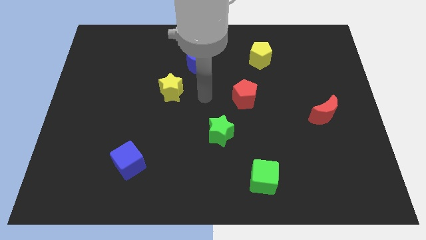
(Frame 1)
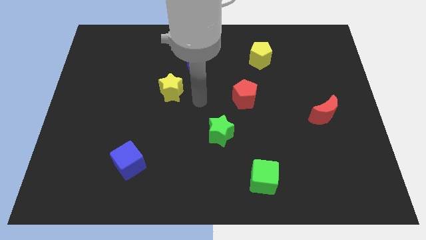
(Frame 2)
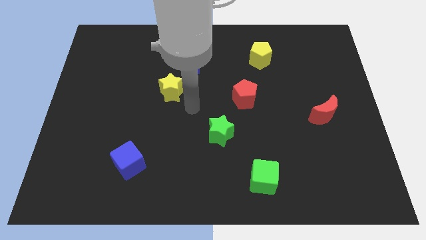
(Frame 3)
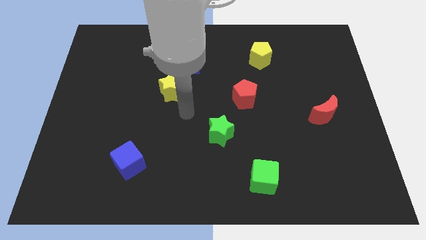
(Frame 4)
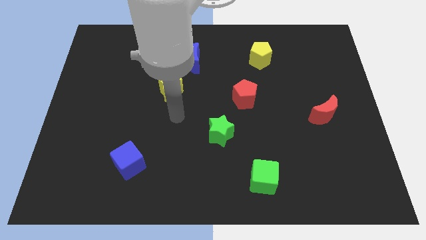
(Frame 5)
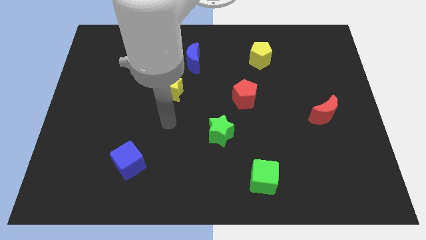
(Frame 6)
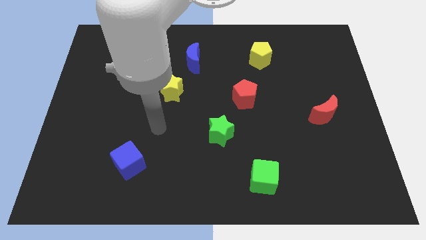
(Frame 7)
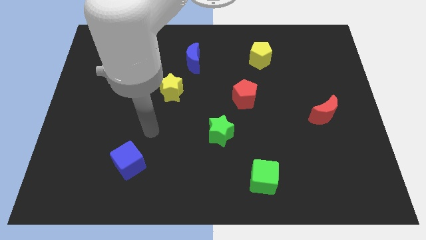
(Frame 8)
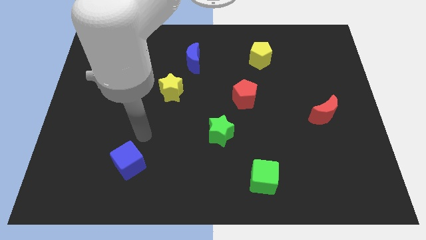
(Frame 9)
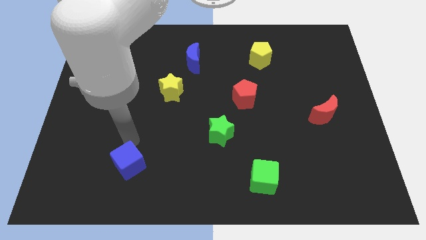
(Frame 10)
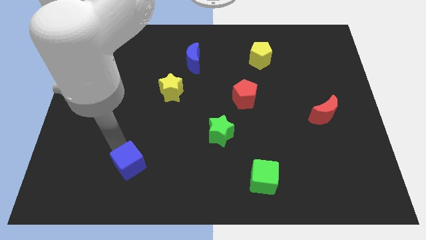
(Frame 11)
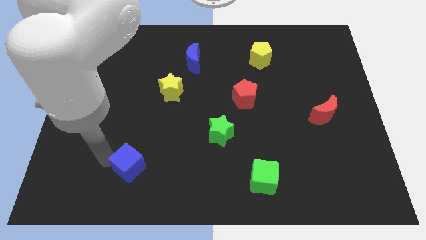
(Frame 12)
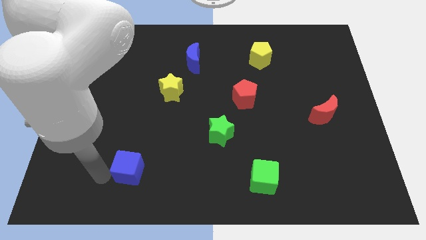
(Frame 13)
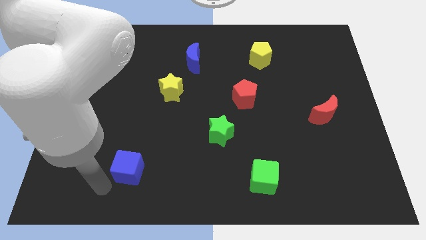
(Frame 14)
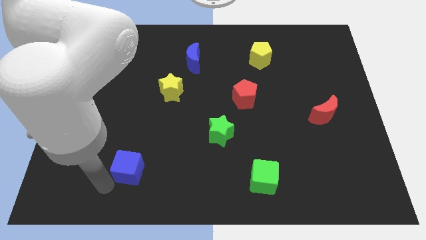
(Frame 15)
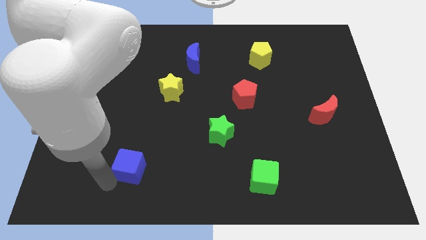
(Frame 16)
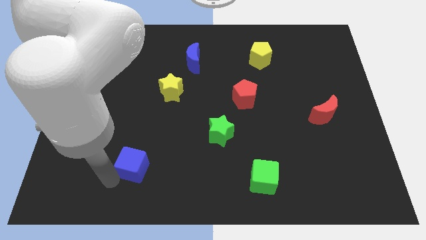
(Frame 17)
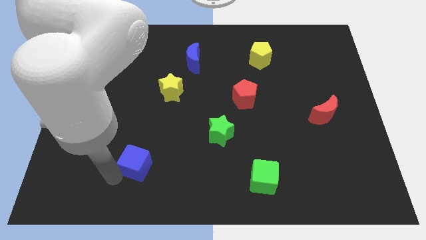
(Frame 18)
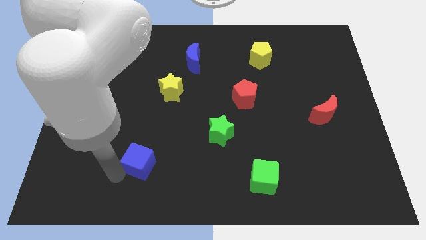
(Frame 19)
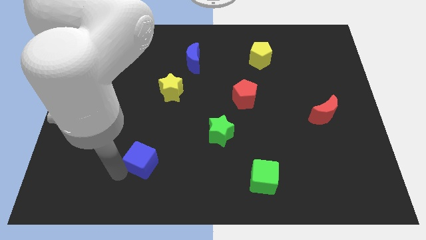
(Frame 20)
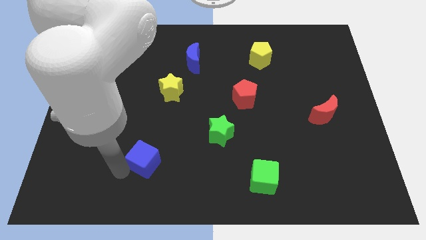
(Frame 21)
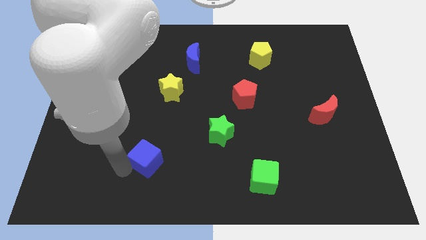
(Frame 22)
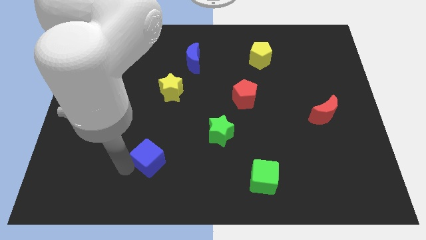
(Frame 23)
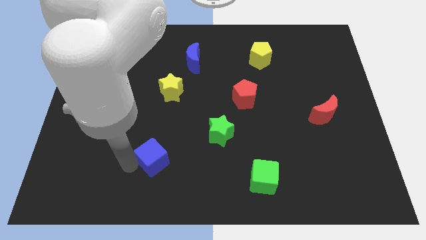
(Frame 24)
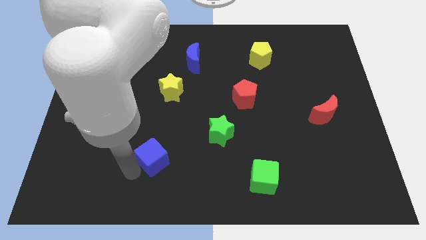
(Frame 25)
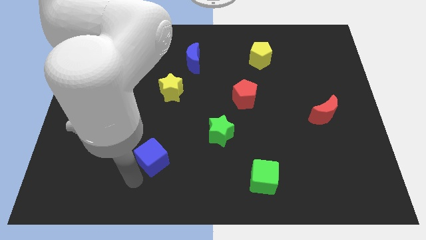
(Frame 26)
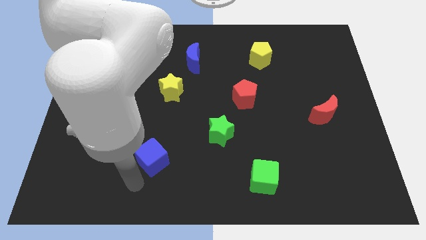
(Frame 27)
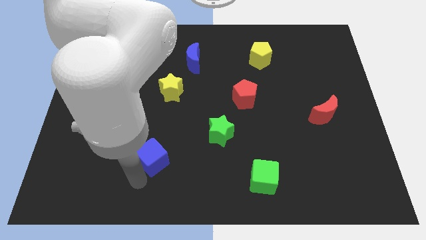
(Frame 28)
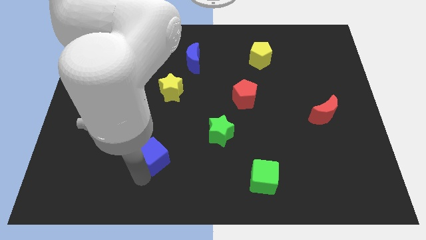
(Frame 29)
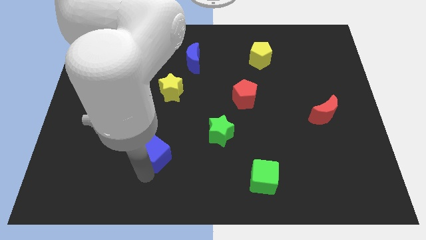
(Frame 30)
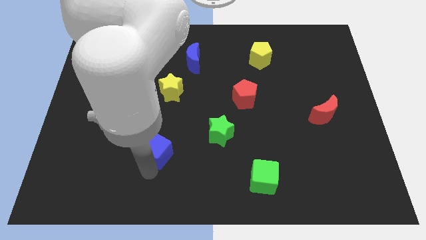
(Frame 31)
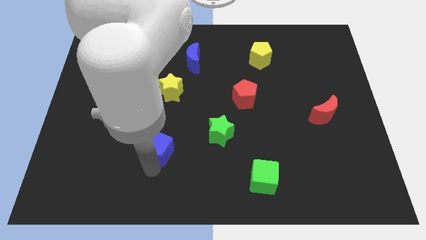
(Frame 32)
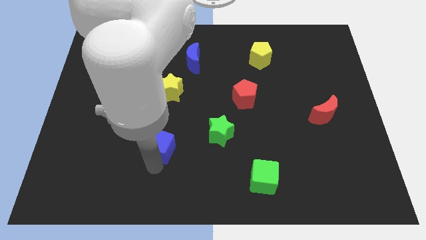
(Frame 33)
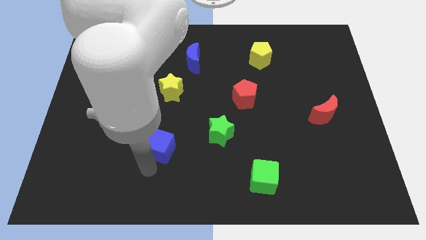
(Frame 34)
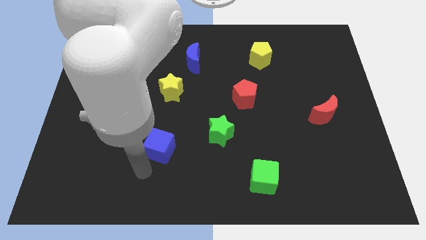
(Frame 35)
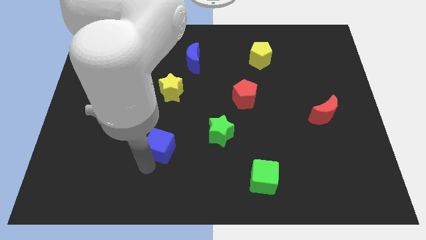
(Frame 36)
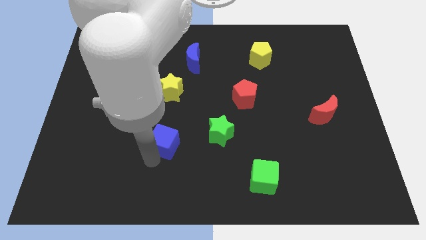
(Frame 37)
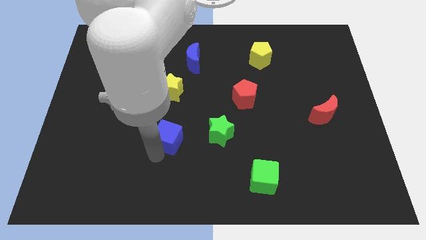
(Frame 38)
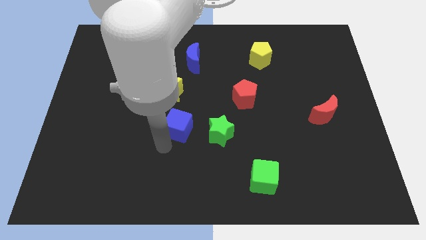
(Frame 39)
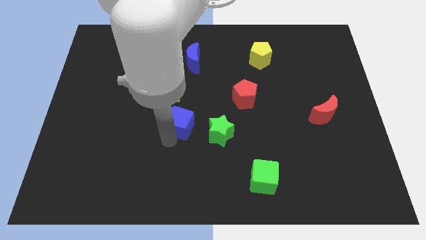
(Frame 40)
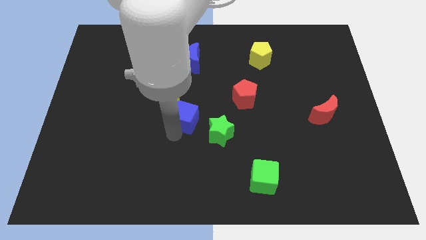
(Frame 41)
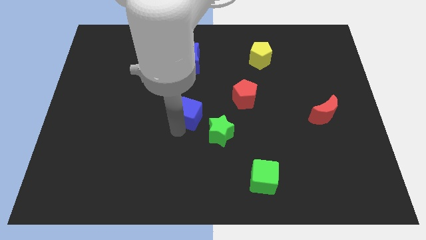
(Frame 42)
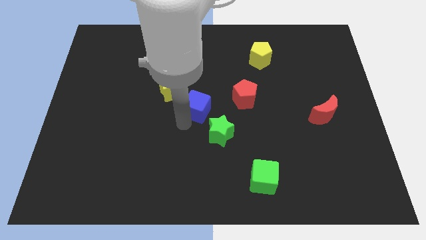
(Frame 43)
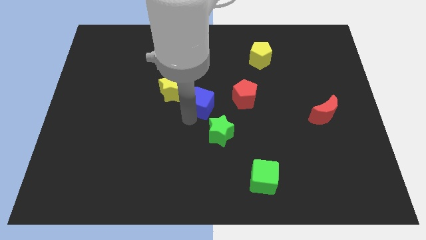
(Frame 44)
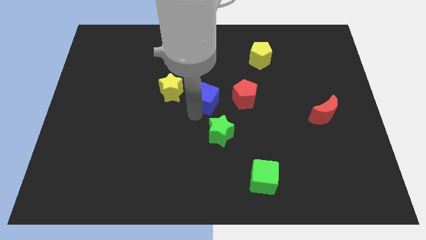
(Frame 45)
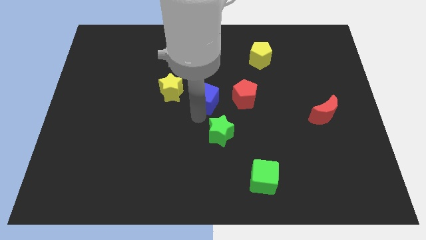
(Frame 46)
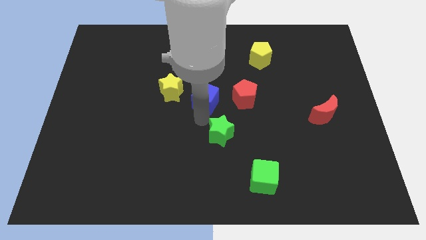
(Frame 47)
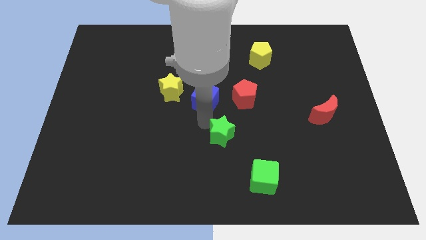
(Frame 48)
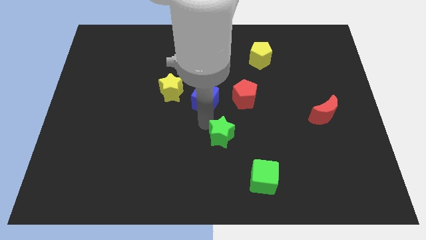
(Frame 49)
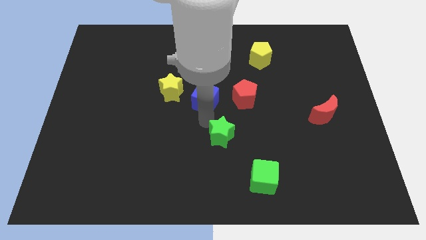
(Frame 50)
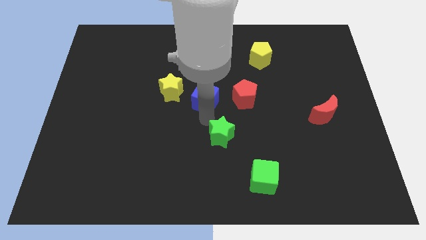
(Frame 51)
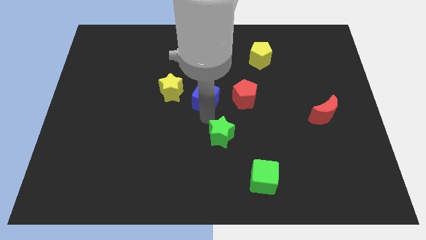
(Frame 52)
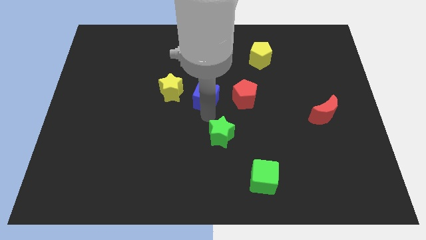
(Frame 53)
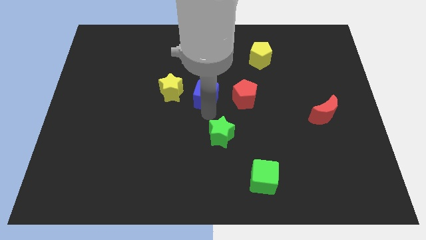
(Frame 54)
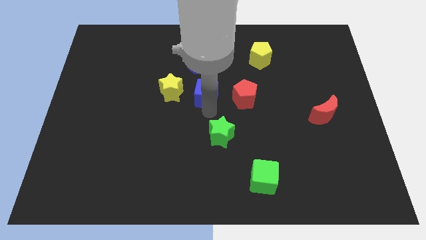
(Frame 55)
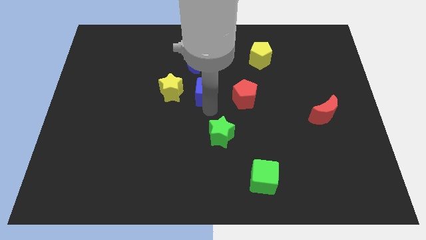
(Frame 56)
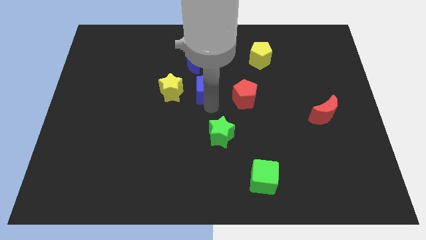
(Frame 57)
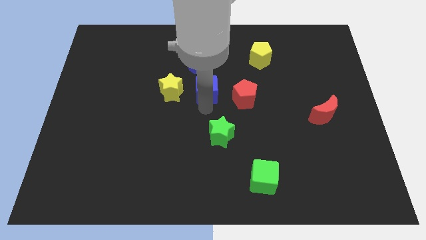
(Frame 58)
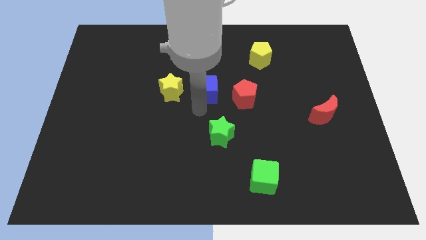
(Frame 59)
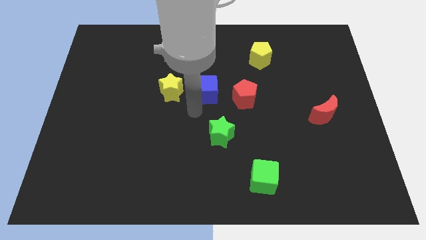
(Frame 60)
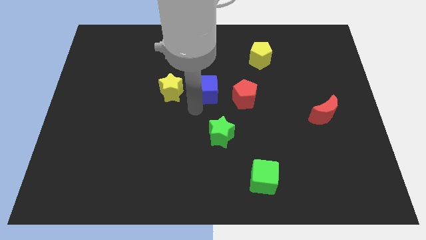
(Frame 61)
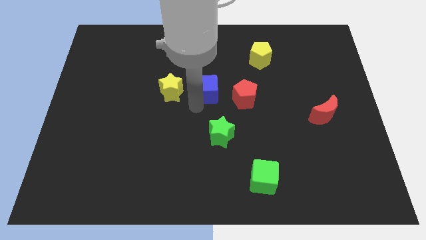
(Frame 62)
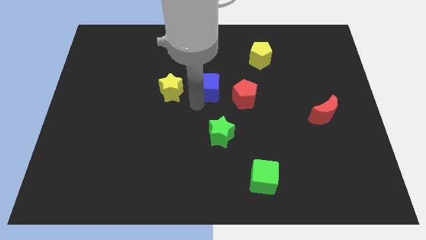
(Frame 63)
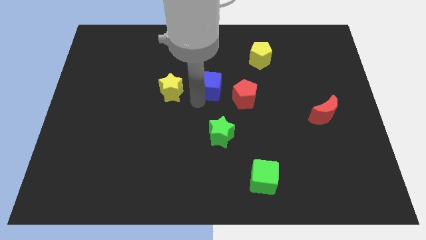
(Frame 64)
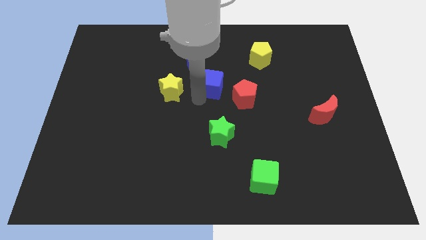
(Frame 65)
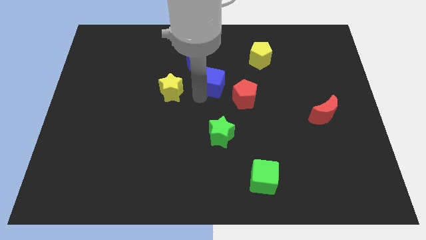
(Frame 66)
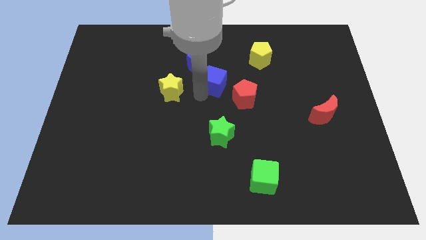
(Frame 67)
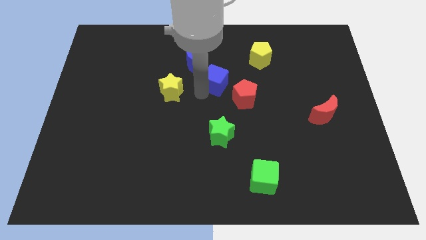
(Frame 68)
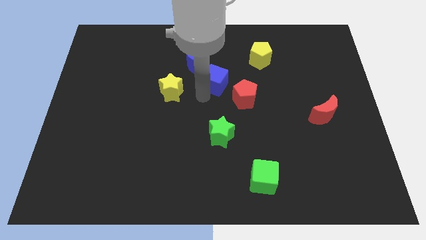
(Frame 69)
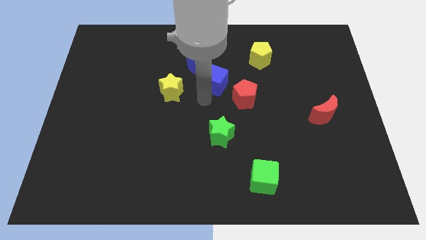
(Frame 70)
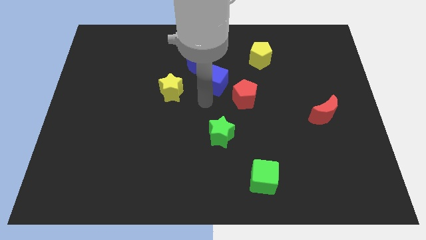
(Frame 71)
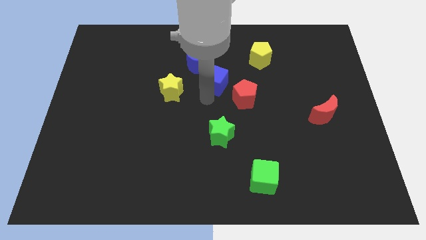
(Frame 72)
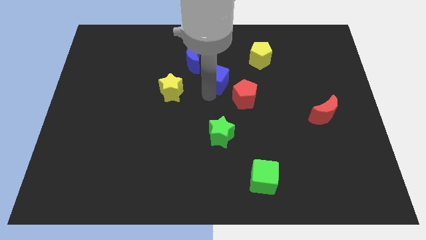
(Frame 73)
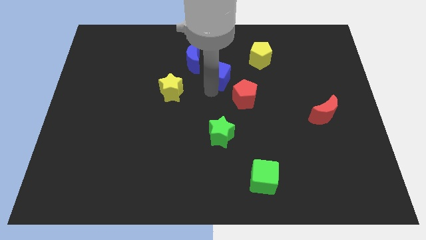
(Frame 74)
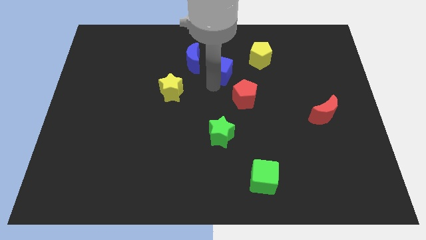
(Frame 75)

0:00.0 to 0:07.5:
push the blue cube right of the blue moon

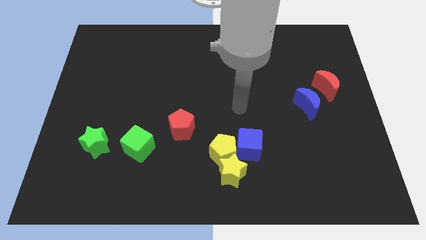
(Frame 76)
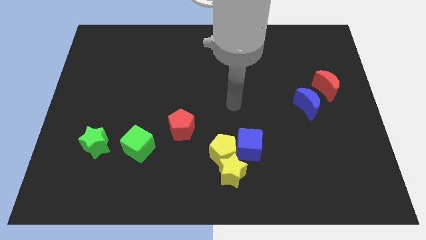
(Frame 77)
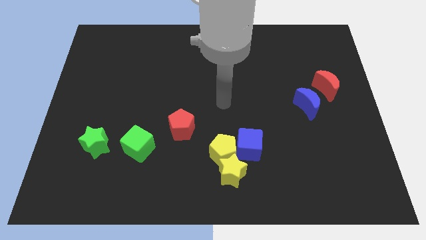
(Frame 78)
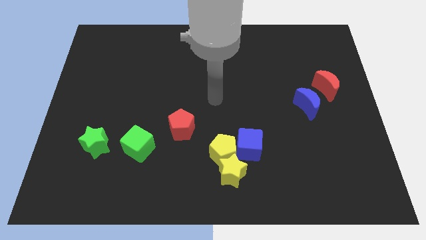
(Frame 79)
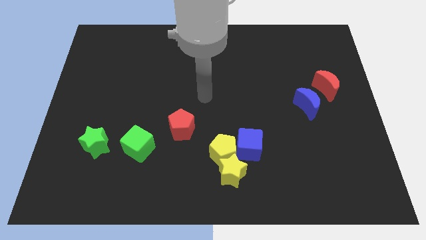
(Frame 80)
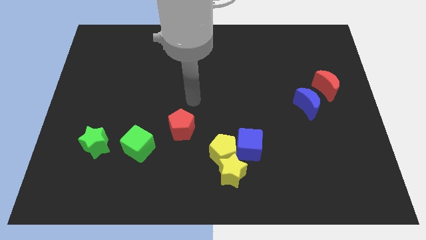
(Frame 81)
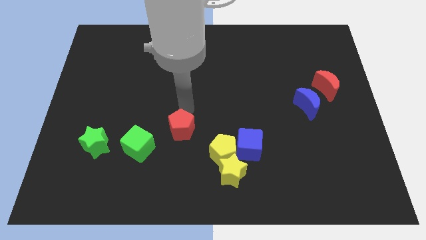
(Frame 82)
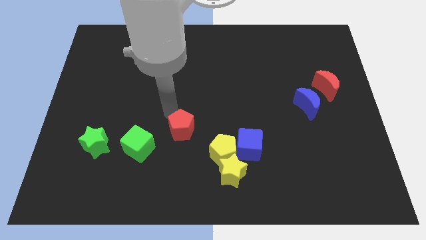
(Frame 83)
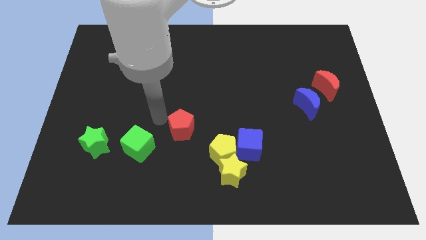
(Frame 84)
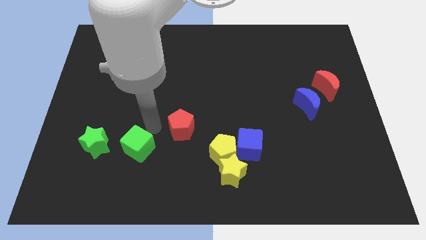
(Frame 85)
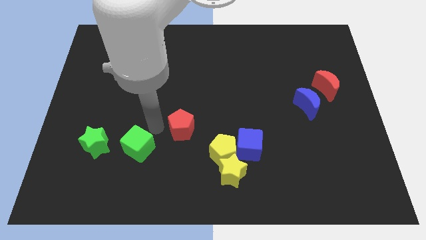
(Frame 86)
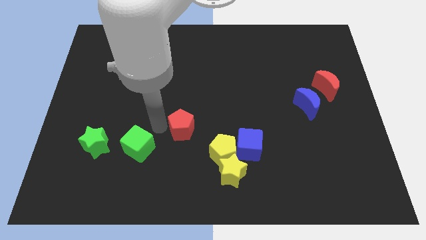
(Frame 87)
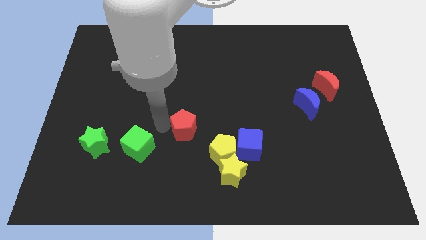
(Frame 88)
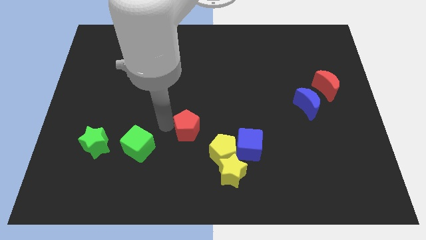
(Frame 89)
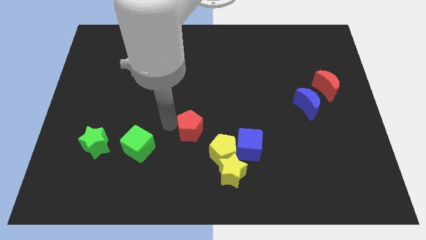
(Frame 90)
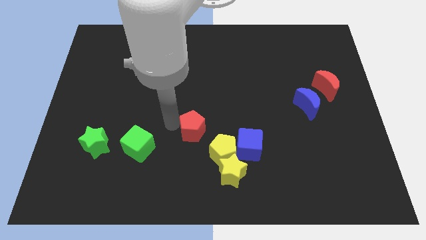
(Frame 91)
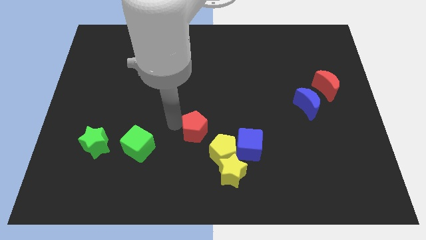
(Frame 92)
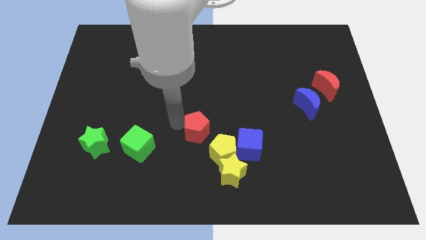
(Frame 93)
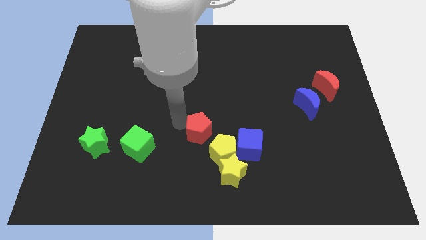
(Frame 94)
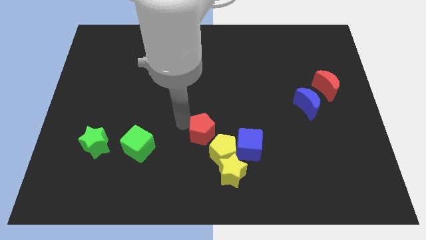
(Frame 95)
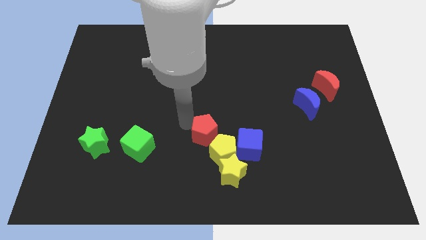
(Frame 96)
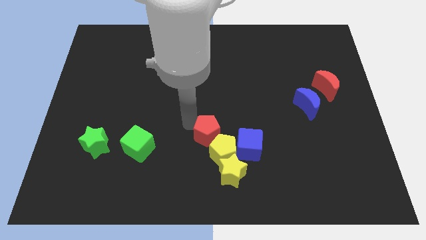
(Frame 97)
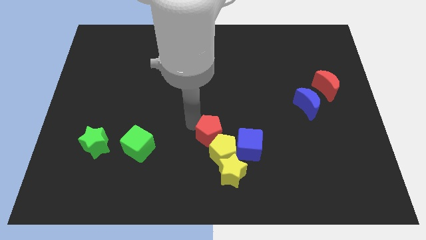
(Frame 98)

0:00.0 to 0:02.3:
put the red pentagon above the yellow star
